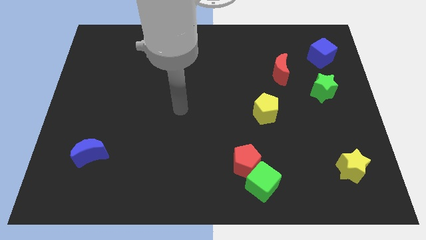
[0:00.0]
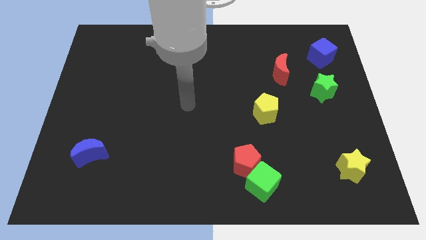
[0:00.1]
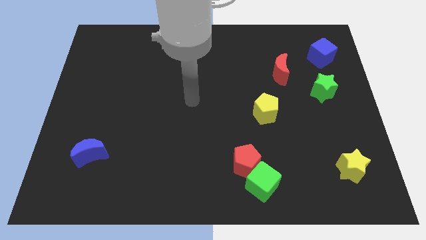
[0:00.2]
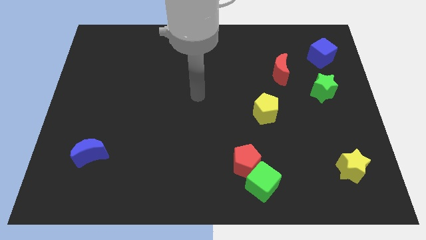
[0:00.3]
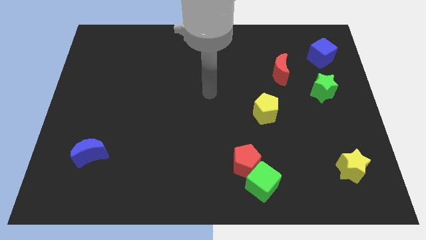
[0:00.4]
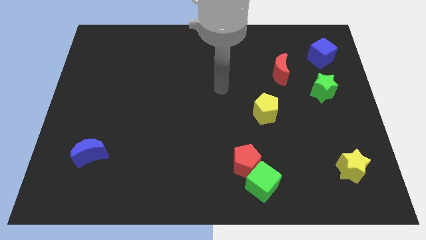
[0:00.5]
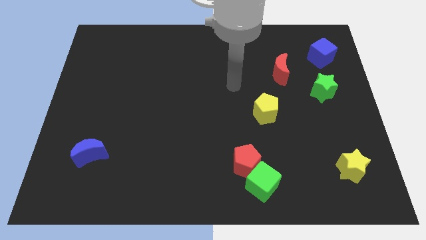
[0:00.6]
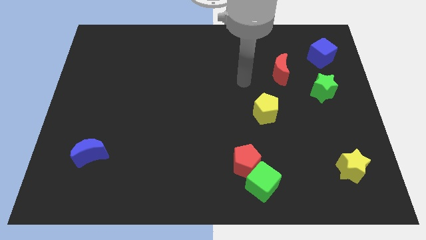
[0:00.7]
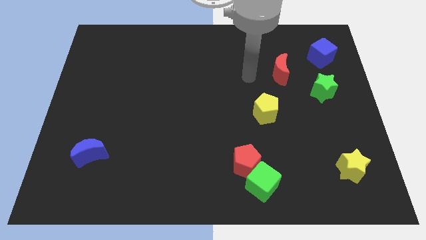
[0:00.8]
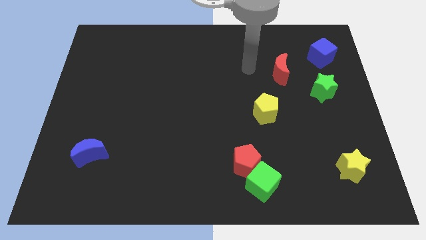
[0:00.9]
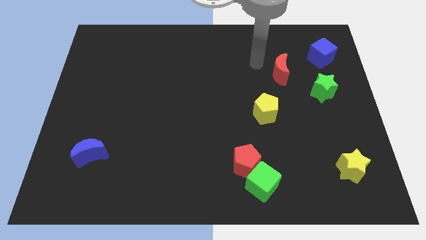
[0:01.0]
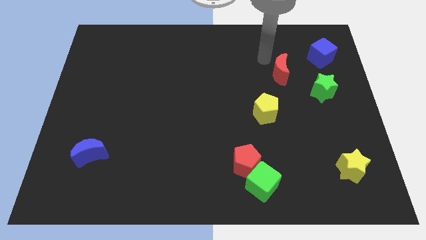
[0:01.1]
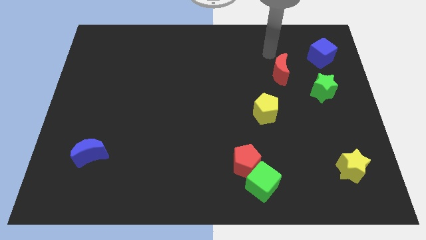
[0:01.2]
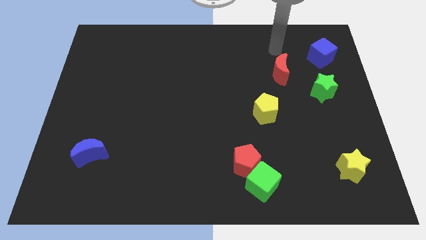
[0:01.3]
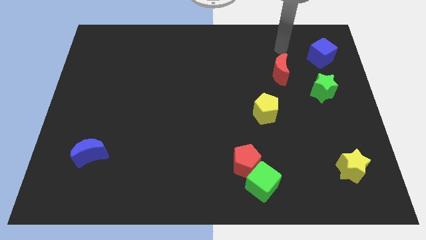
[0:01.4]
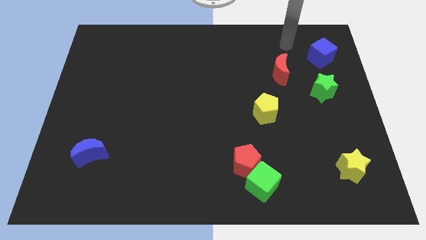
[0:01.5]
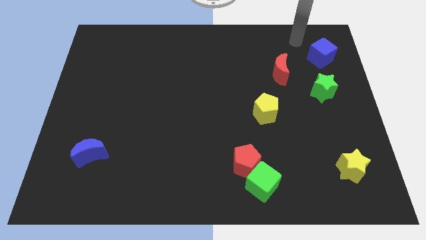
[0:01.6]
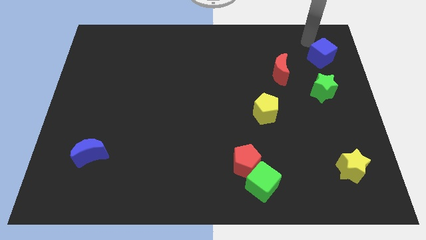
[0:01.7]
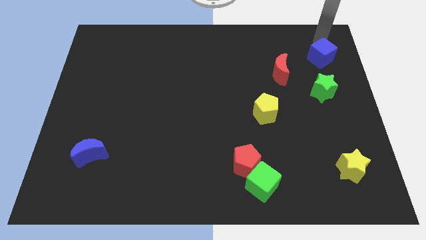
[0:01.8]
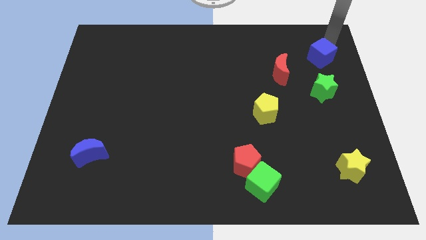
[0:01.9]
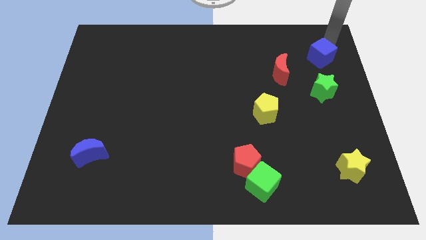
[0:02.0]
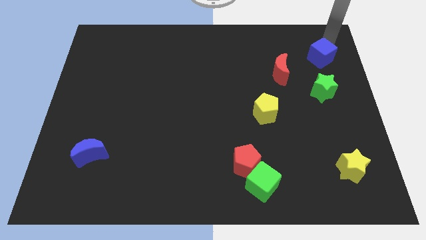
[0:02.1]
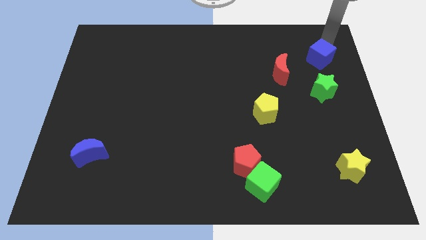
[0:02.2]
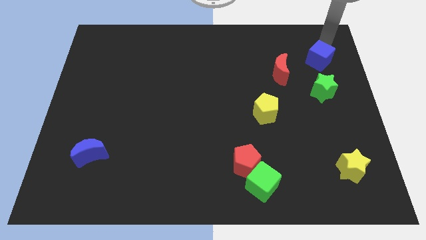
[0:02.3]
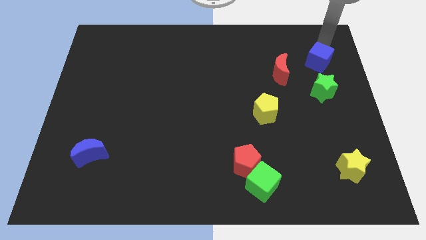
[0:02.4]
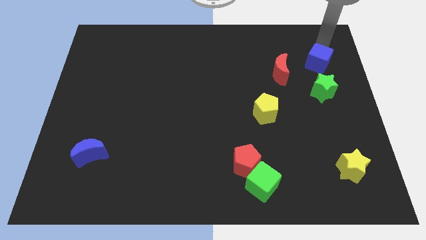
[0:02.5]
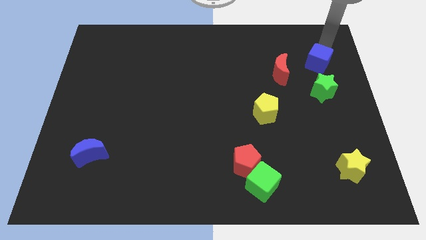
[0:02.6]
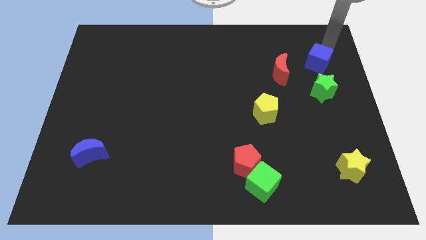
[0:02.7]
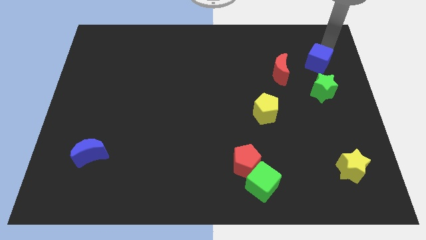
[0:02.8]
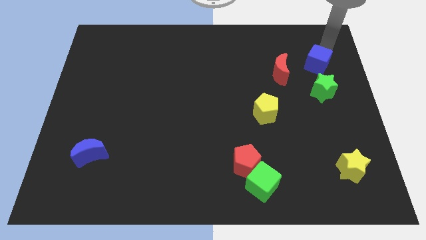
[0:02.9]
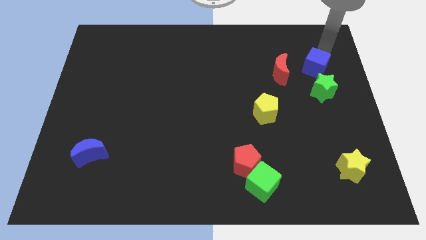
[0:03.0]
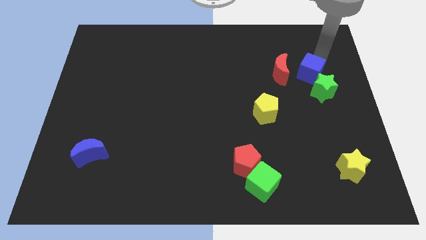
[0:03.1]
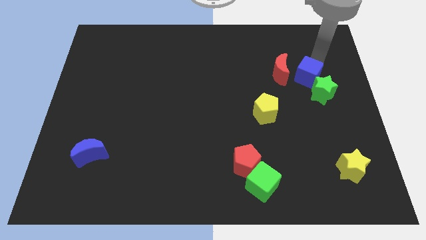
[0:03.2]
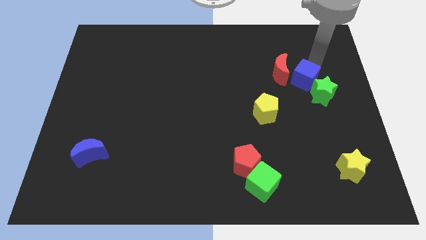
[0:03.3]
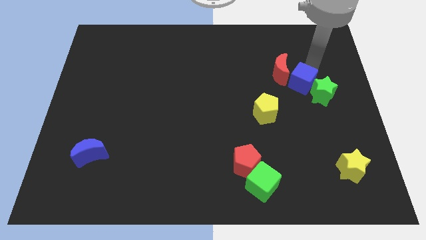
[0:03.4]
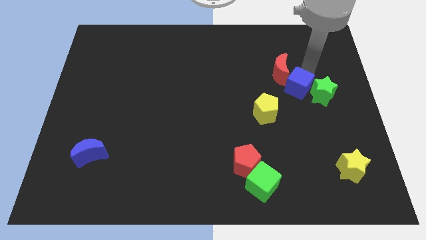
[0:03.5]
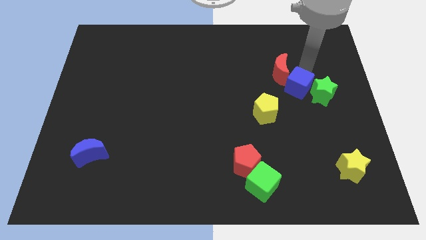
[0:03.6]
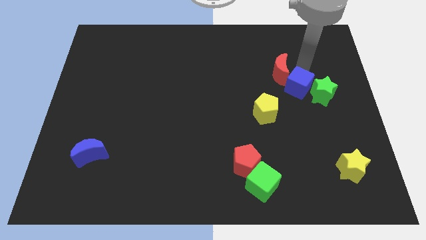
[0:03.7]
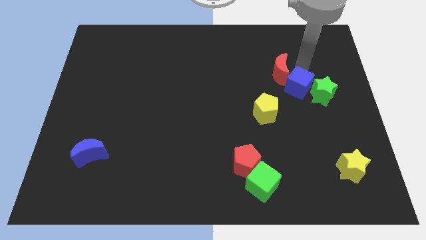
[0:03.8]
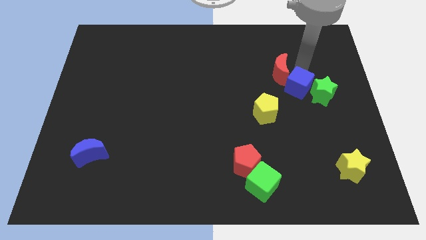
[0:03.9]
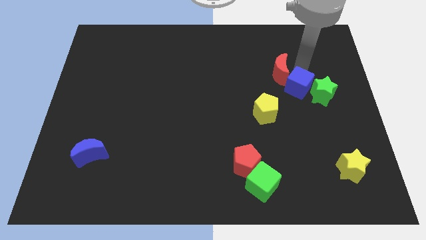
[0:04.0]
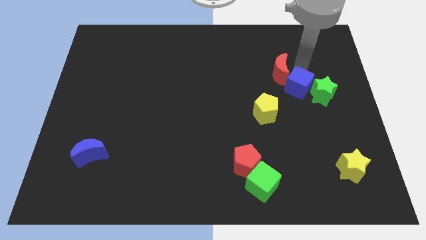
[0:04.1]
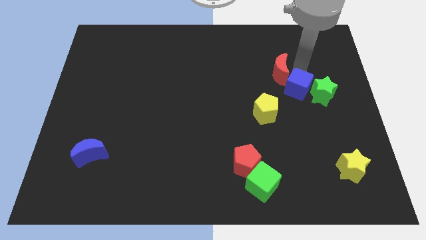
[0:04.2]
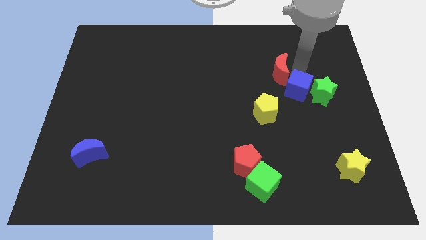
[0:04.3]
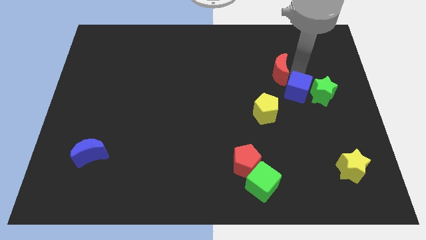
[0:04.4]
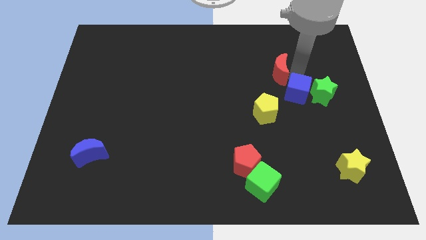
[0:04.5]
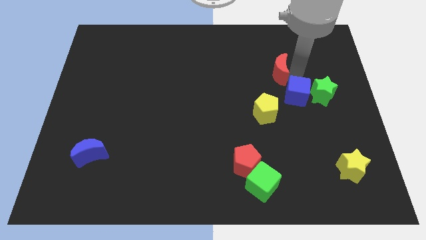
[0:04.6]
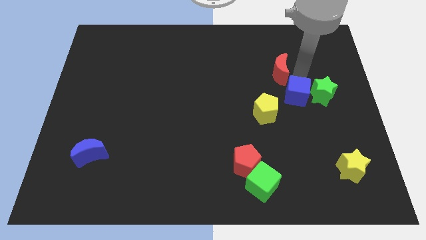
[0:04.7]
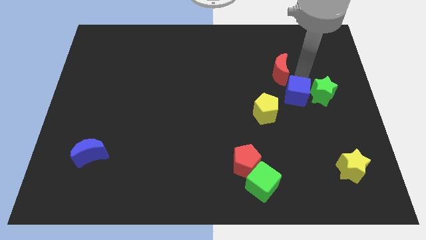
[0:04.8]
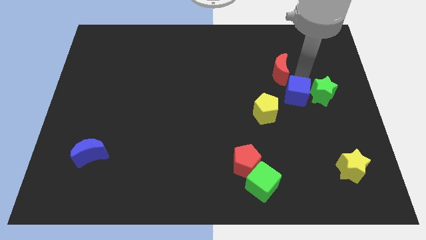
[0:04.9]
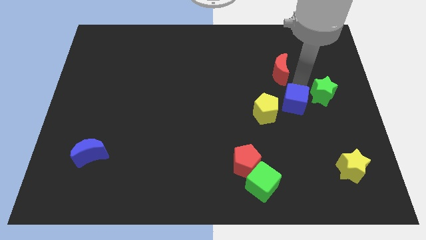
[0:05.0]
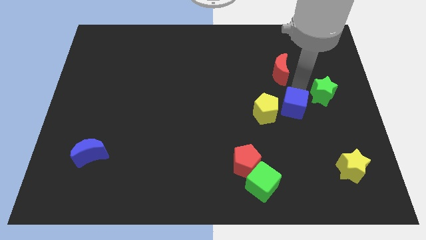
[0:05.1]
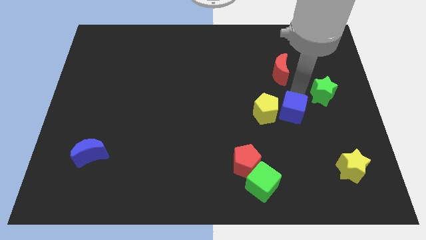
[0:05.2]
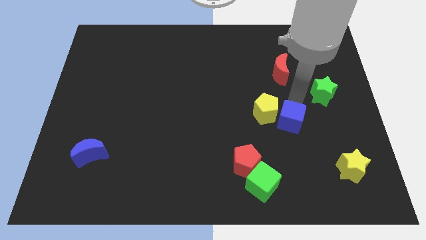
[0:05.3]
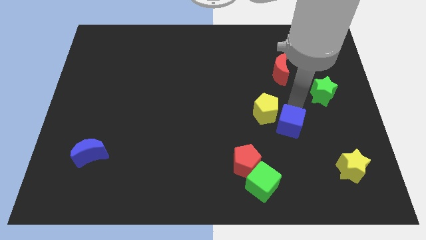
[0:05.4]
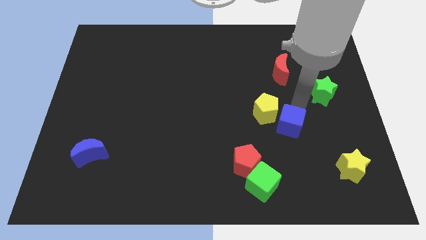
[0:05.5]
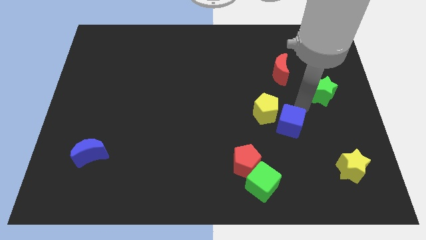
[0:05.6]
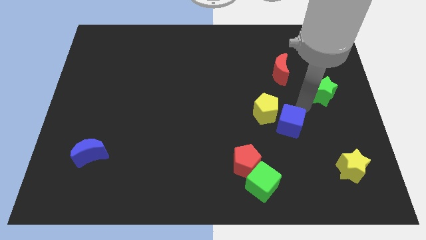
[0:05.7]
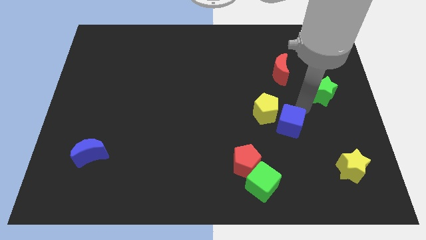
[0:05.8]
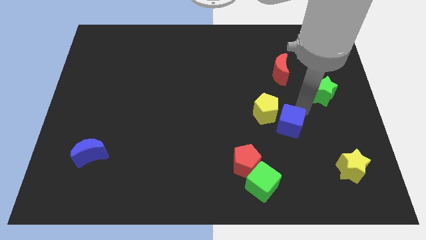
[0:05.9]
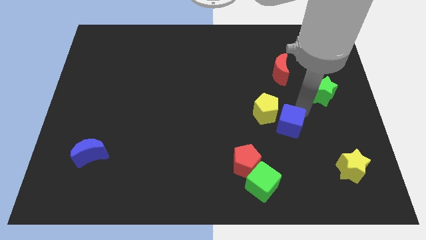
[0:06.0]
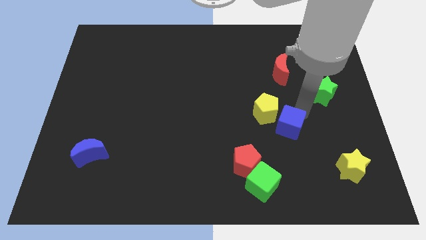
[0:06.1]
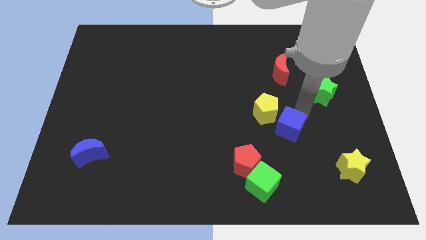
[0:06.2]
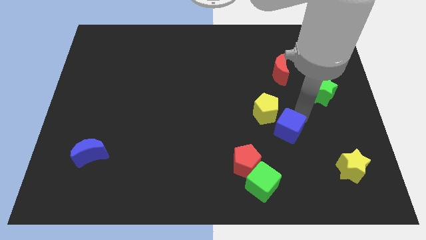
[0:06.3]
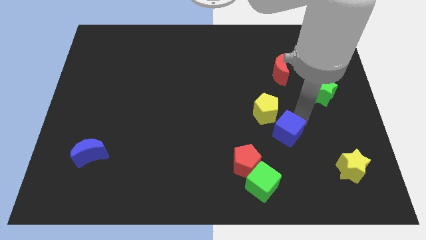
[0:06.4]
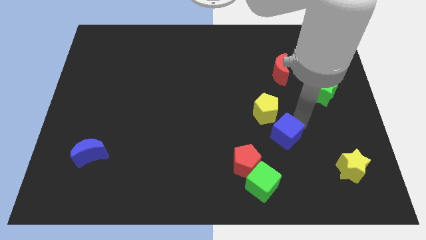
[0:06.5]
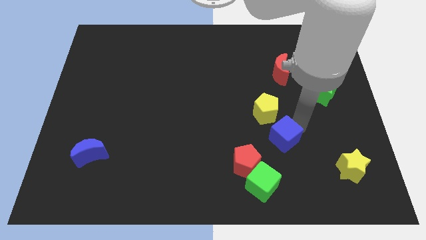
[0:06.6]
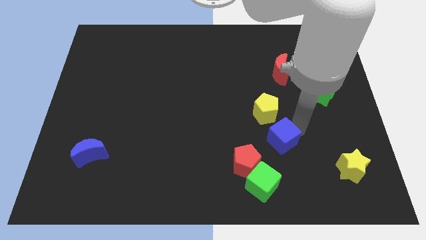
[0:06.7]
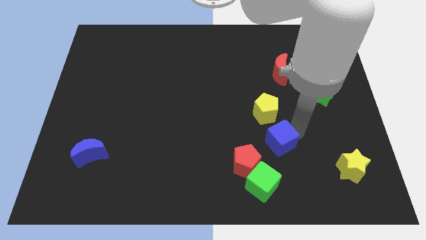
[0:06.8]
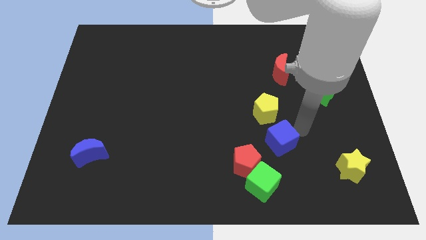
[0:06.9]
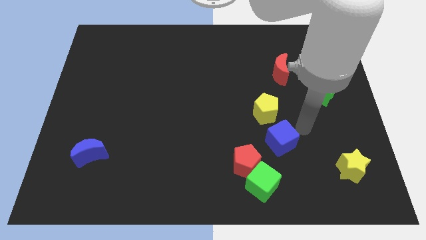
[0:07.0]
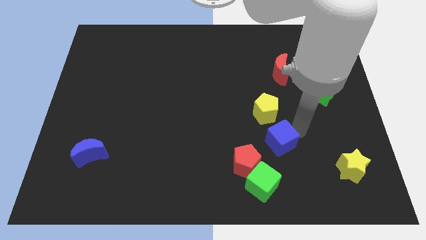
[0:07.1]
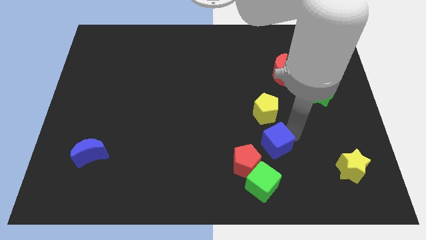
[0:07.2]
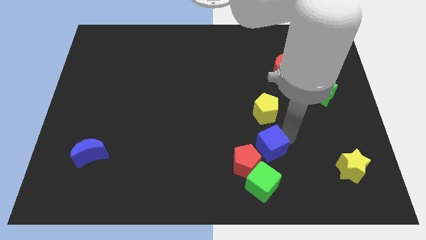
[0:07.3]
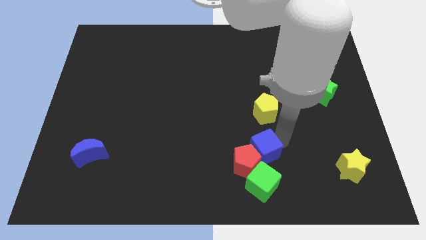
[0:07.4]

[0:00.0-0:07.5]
move the blue cube towards the red pentagon

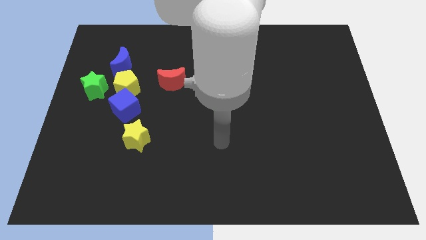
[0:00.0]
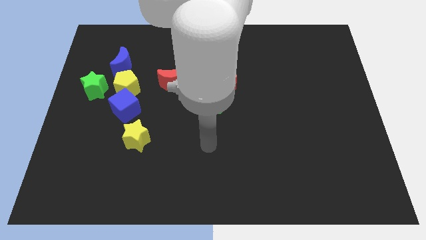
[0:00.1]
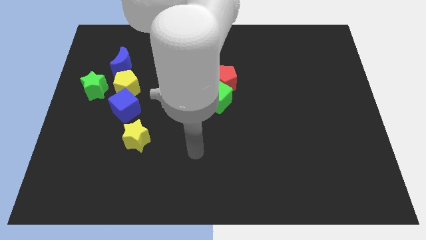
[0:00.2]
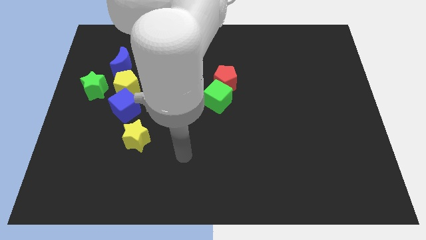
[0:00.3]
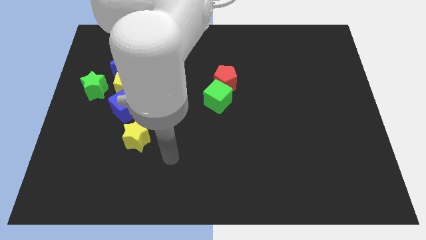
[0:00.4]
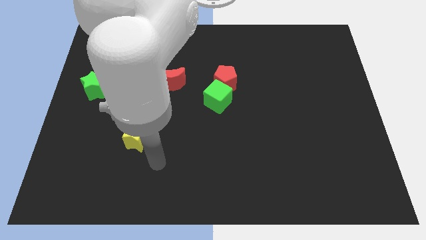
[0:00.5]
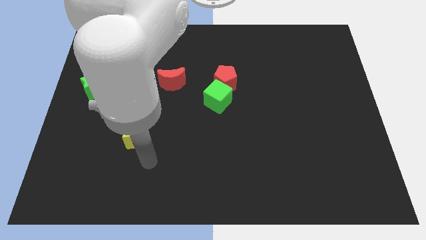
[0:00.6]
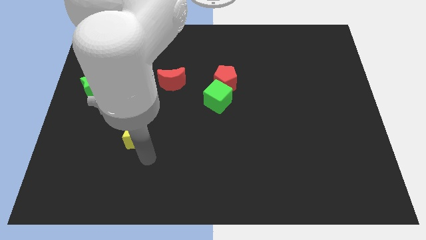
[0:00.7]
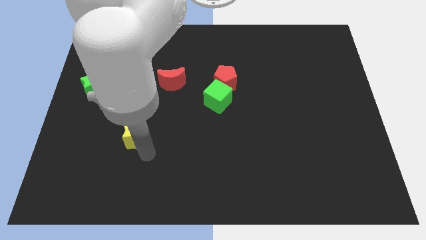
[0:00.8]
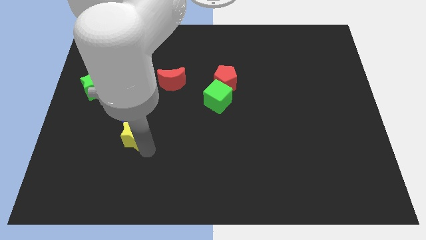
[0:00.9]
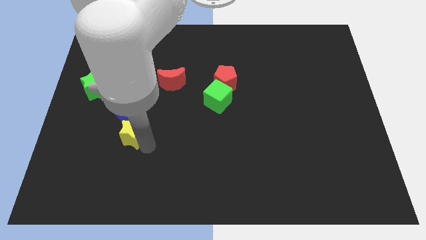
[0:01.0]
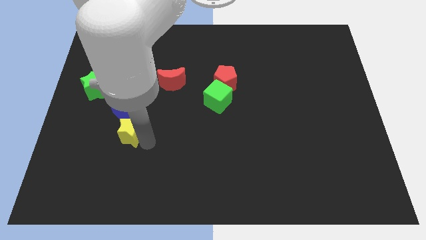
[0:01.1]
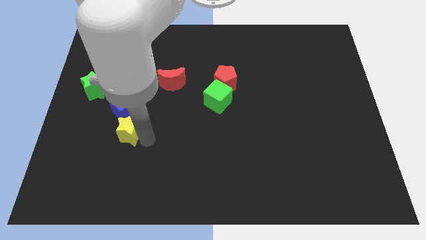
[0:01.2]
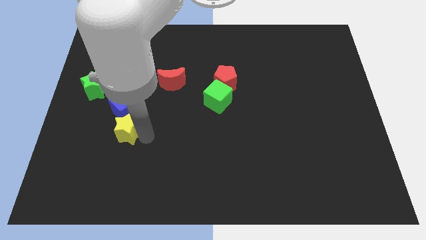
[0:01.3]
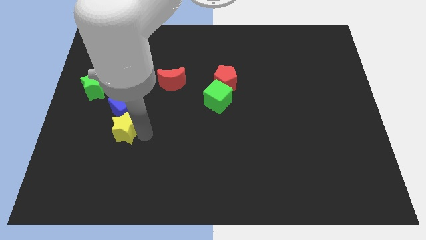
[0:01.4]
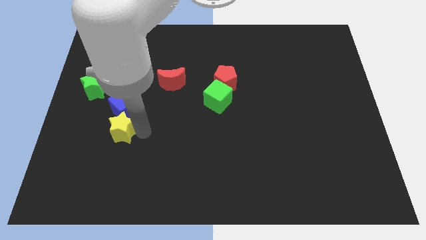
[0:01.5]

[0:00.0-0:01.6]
slide the yellow star towards the blue cube
